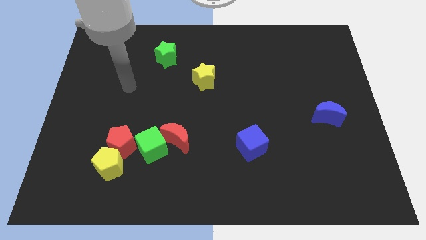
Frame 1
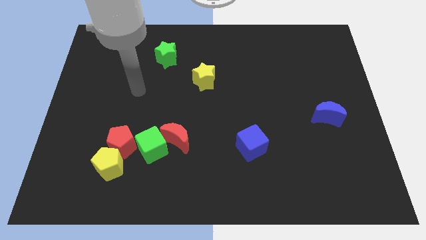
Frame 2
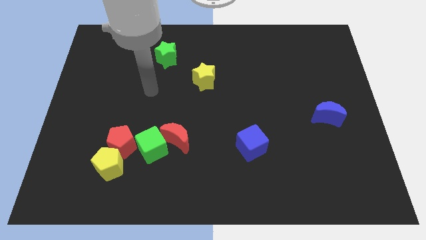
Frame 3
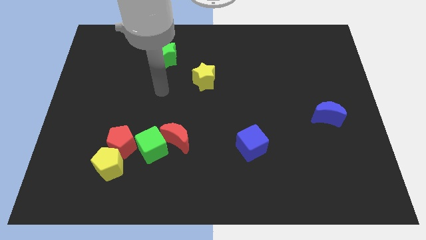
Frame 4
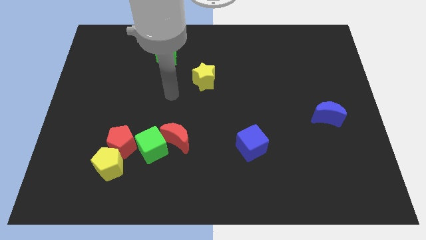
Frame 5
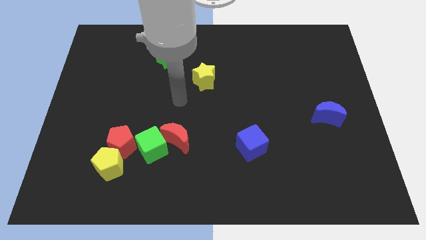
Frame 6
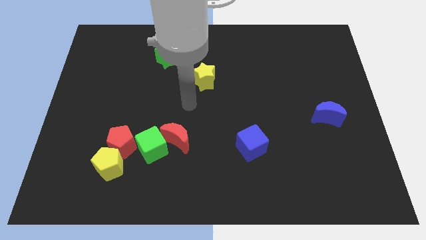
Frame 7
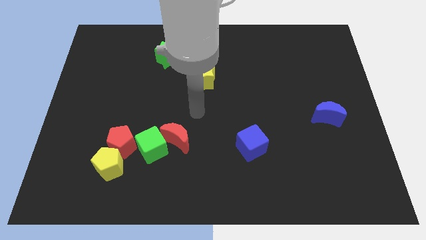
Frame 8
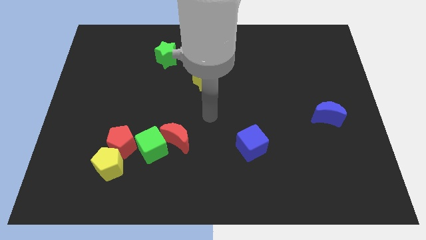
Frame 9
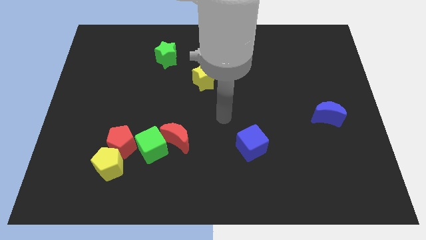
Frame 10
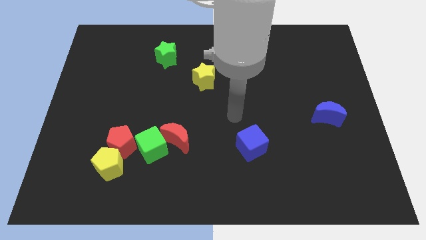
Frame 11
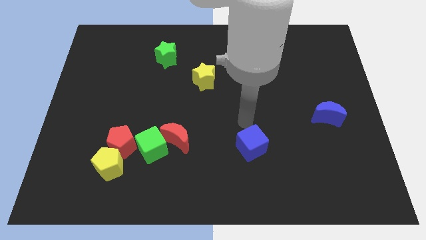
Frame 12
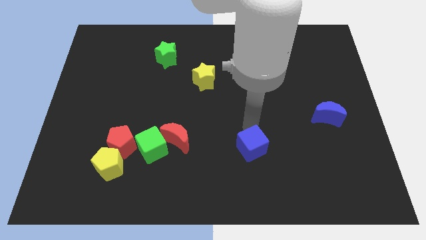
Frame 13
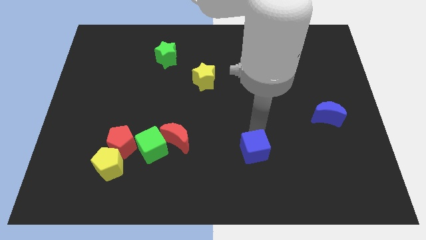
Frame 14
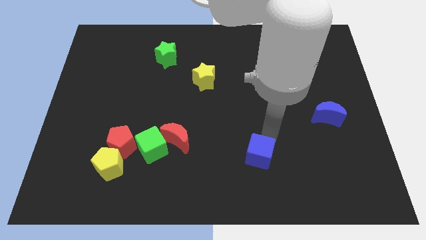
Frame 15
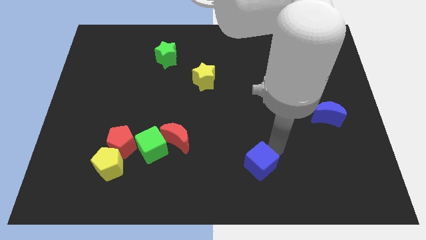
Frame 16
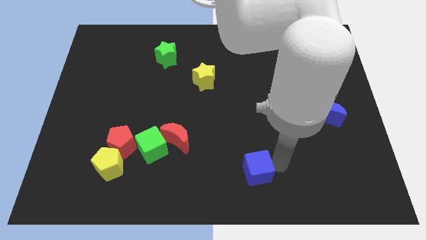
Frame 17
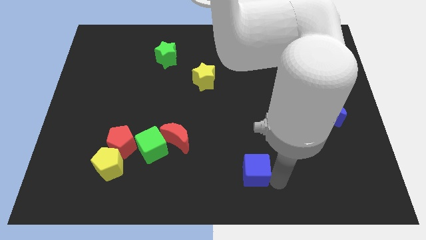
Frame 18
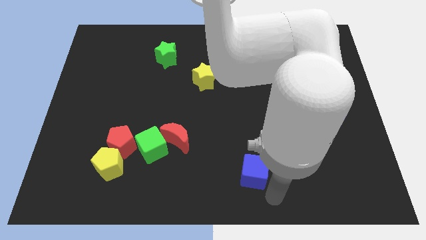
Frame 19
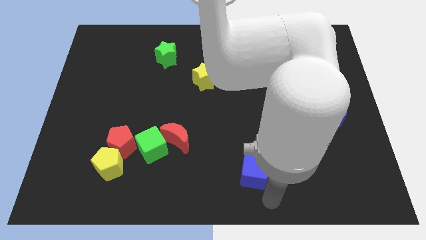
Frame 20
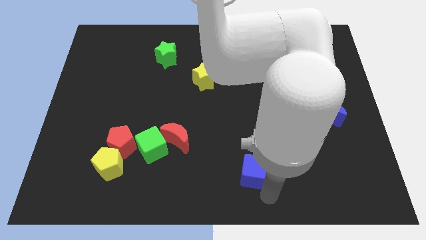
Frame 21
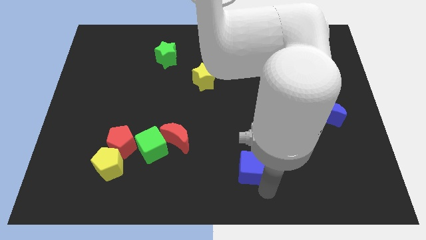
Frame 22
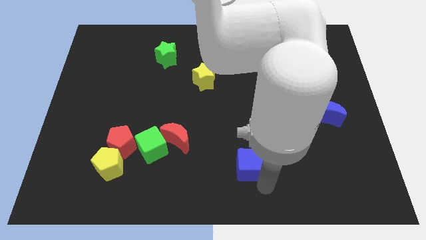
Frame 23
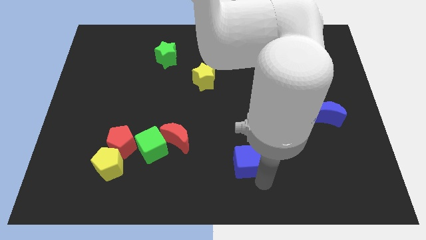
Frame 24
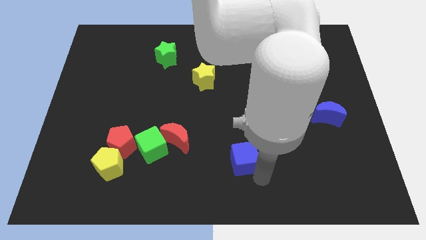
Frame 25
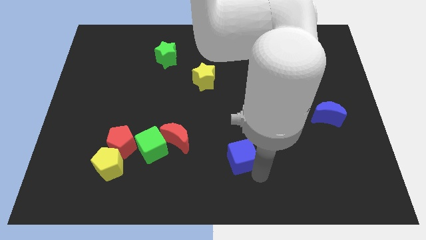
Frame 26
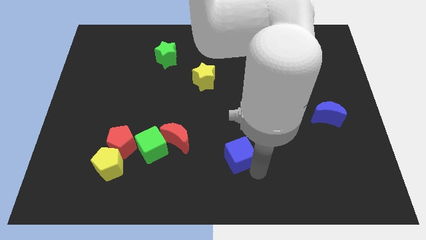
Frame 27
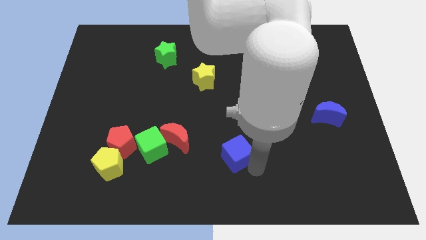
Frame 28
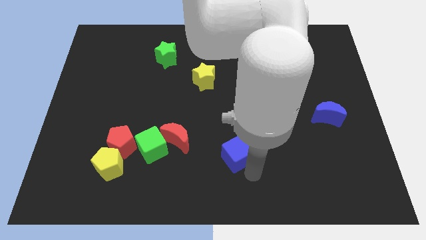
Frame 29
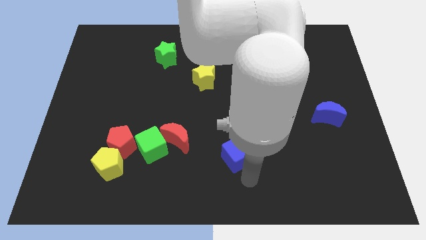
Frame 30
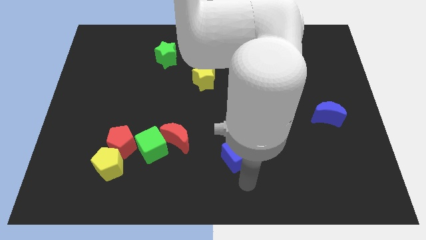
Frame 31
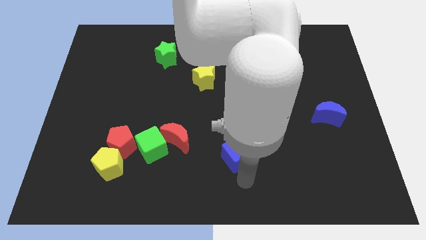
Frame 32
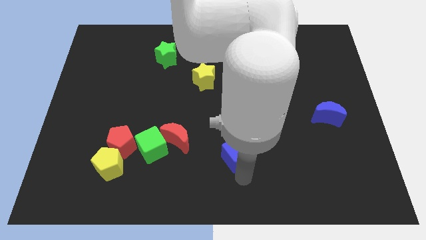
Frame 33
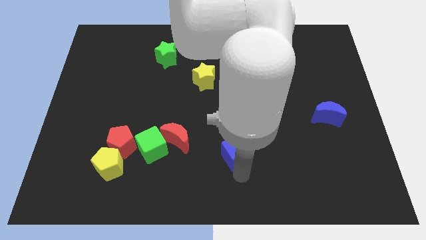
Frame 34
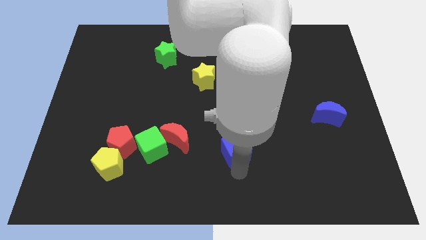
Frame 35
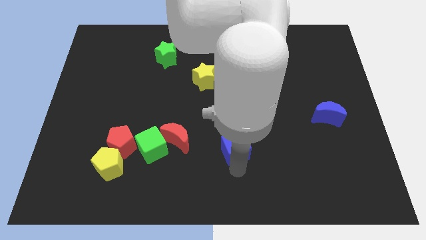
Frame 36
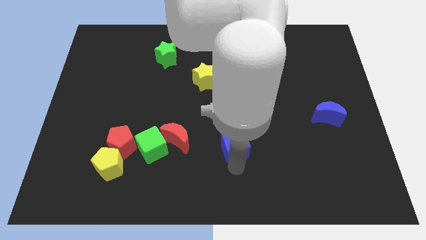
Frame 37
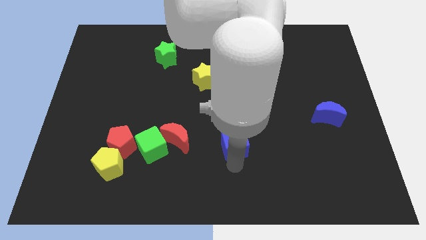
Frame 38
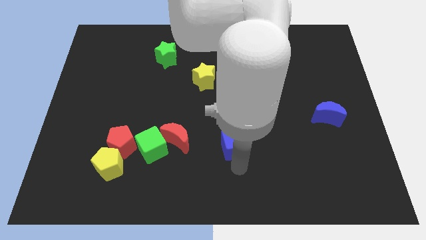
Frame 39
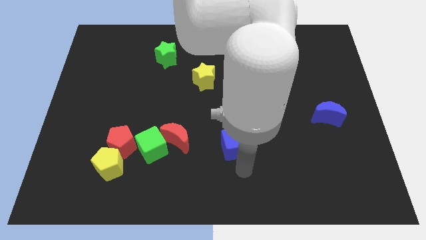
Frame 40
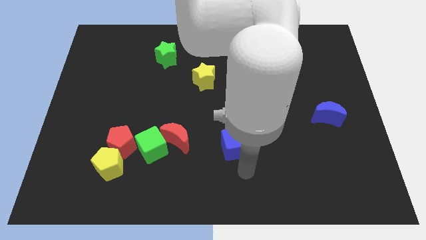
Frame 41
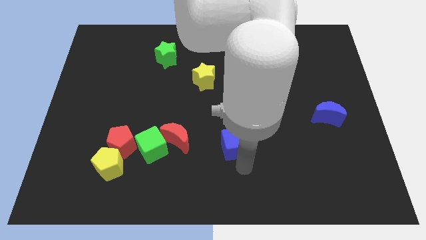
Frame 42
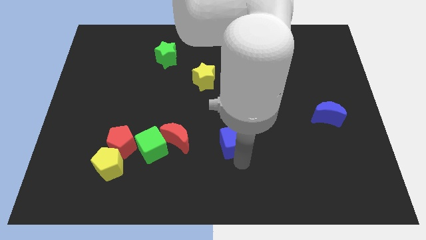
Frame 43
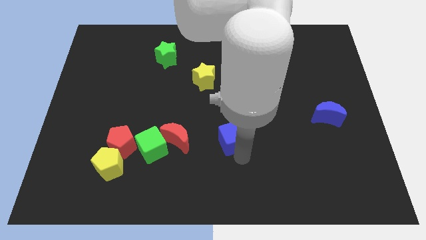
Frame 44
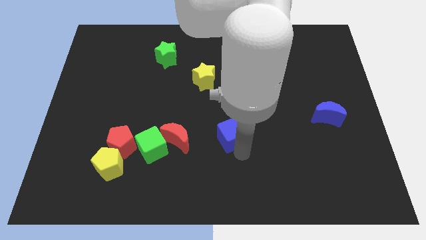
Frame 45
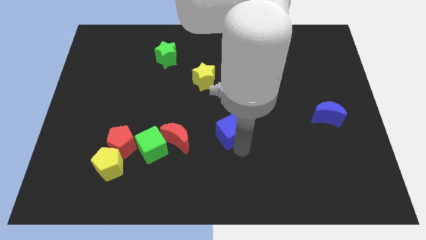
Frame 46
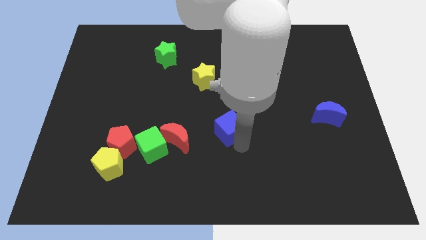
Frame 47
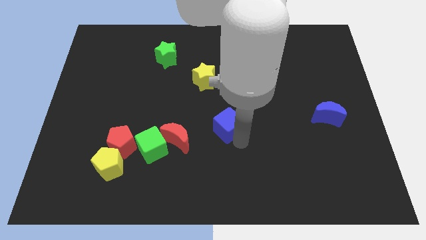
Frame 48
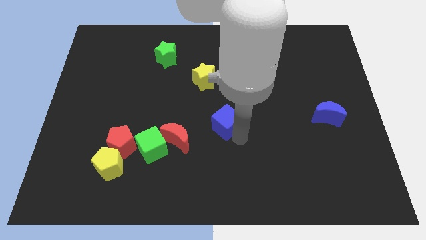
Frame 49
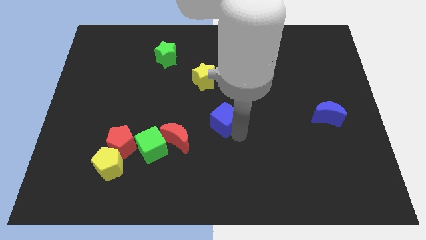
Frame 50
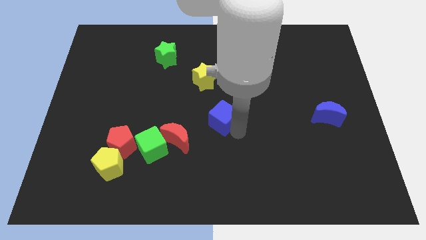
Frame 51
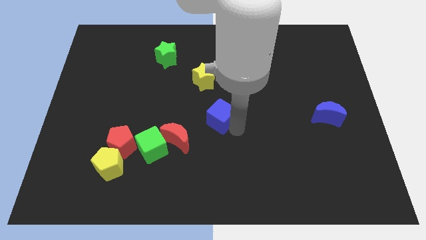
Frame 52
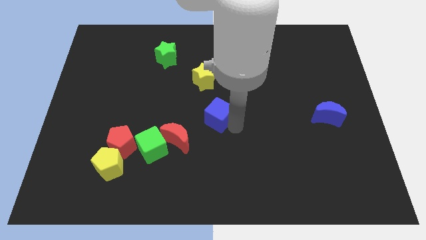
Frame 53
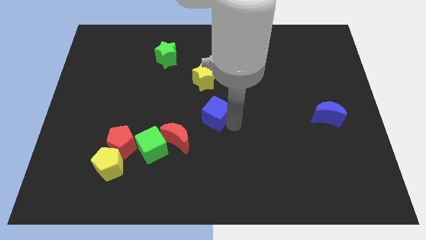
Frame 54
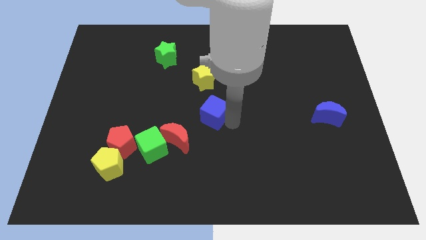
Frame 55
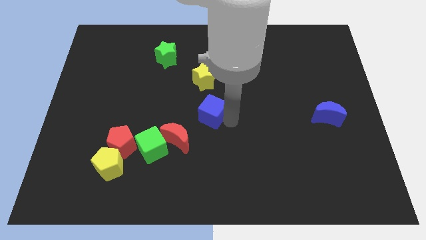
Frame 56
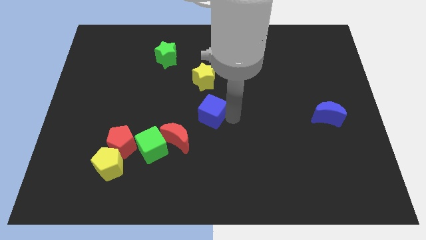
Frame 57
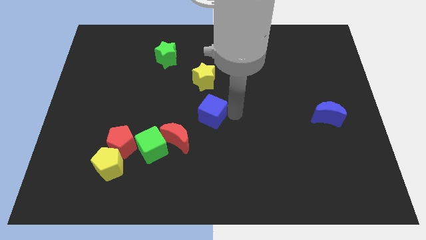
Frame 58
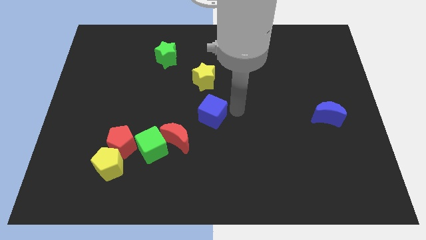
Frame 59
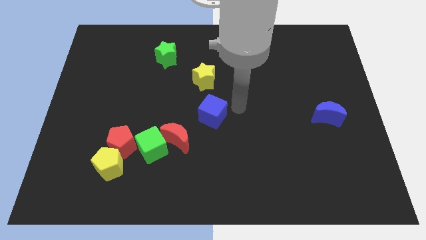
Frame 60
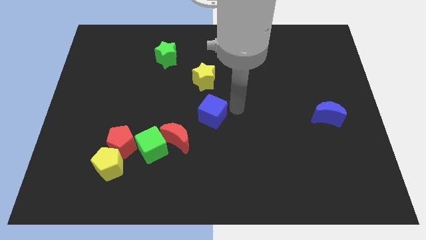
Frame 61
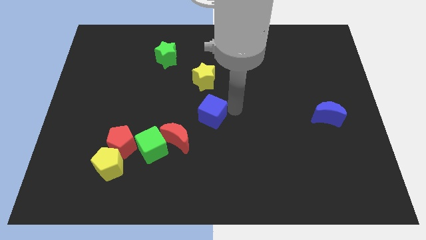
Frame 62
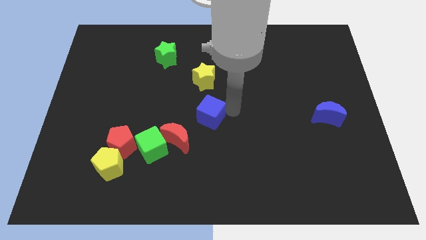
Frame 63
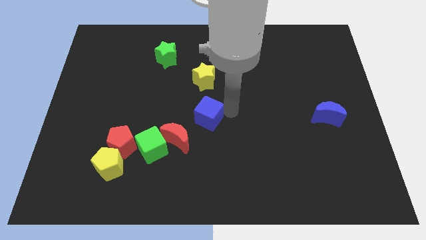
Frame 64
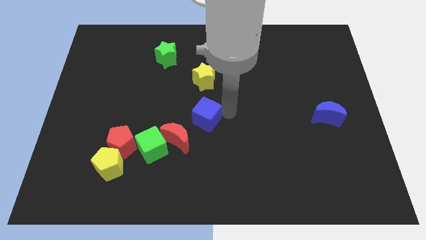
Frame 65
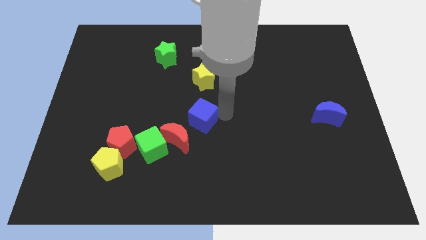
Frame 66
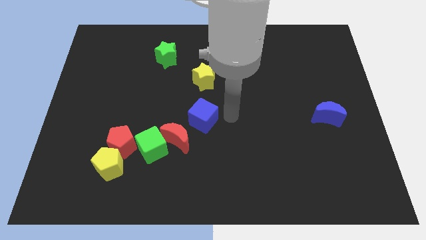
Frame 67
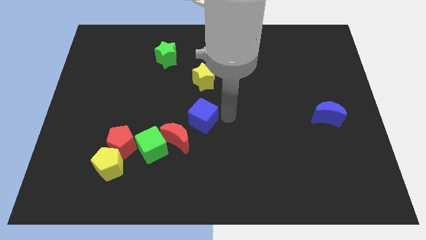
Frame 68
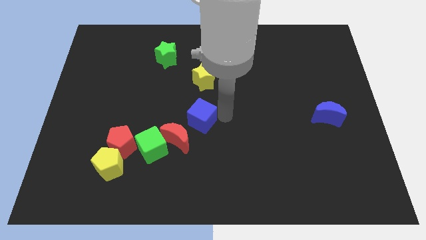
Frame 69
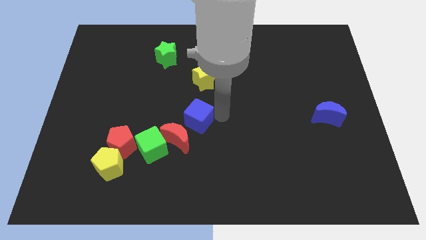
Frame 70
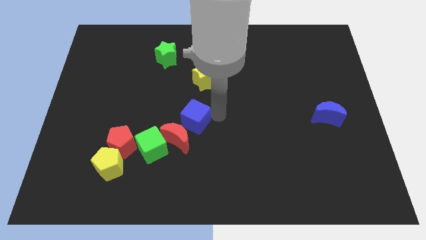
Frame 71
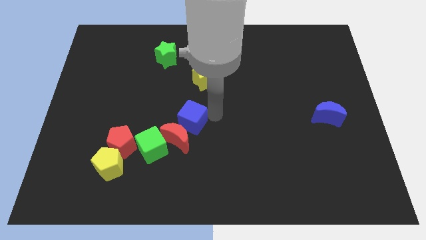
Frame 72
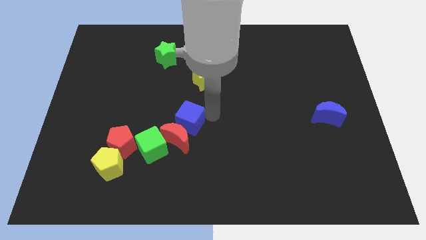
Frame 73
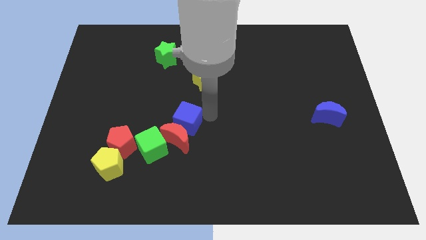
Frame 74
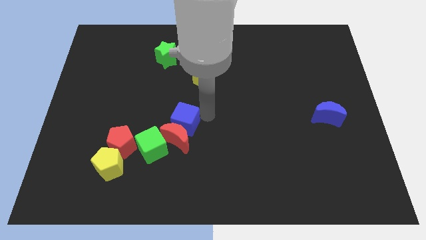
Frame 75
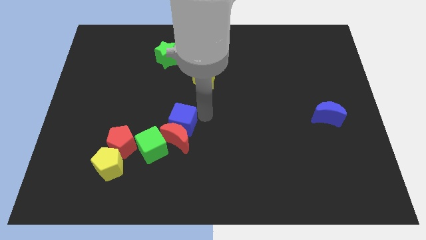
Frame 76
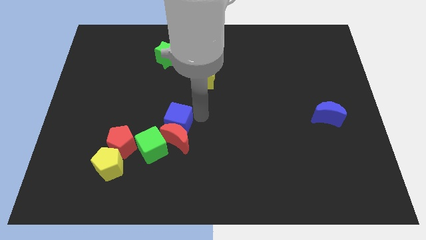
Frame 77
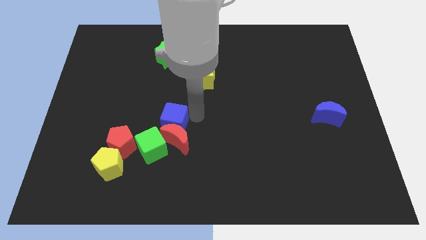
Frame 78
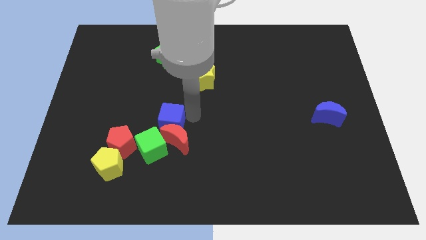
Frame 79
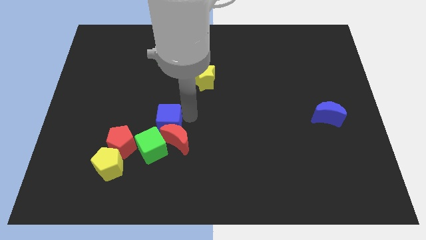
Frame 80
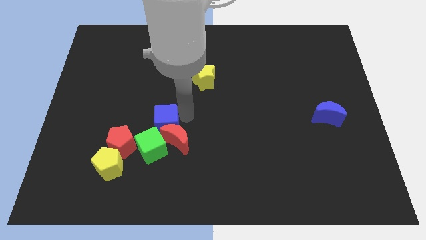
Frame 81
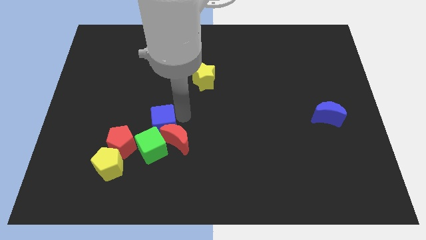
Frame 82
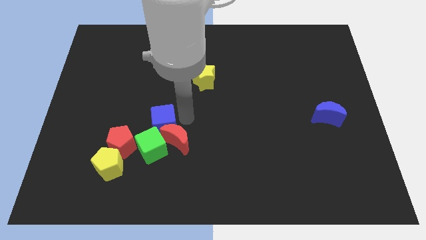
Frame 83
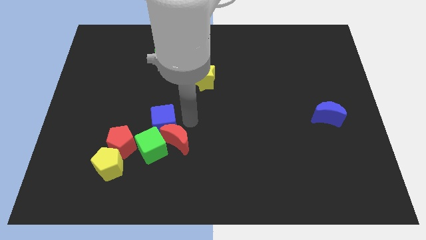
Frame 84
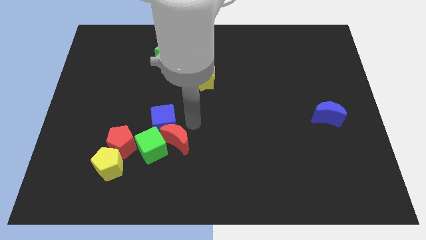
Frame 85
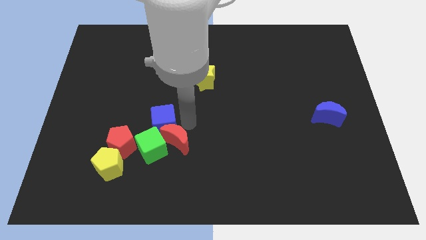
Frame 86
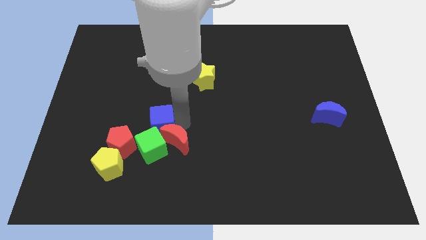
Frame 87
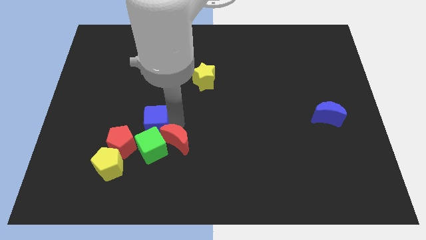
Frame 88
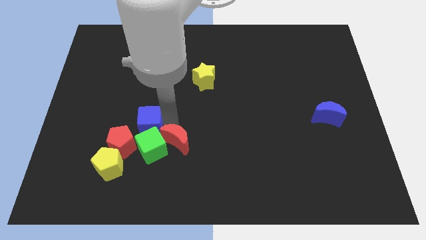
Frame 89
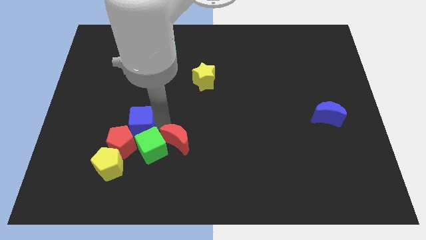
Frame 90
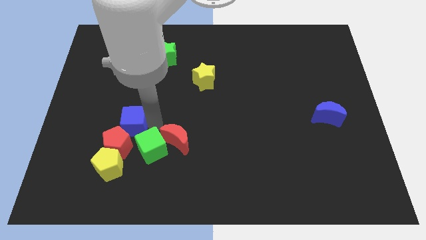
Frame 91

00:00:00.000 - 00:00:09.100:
push the blue cube to the top of the yellow pentagon
